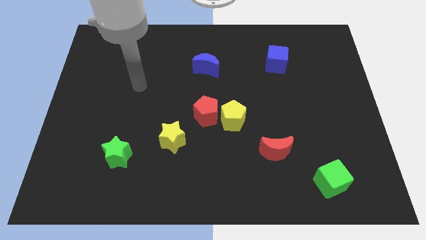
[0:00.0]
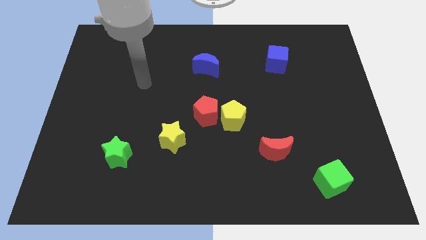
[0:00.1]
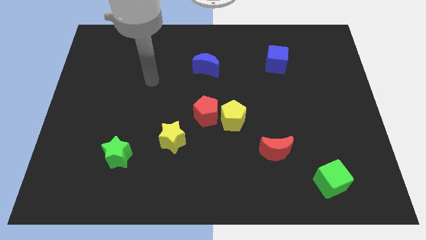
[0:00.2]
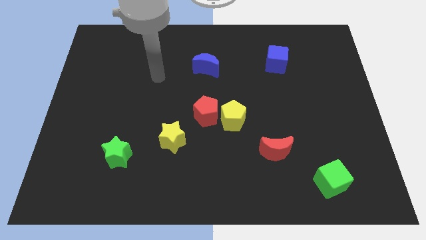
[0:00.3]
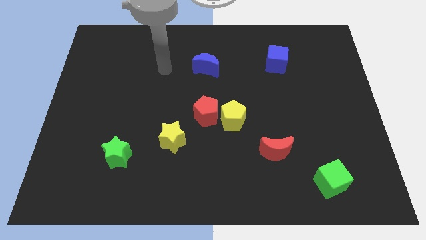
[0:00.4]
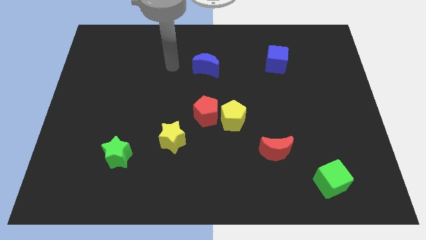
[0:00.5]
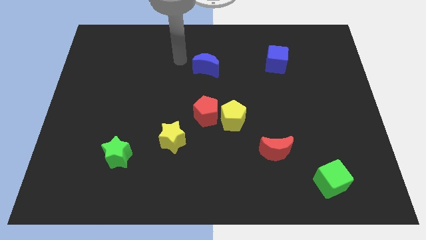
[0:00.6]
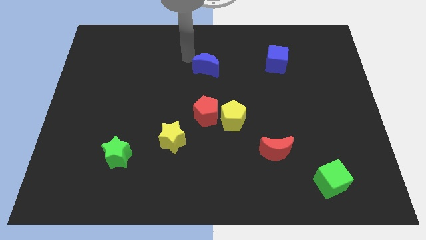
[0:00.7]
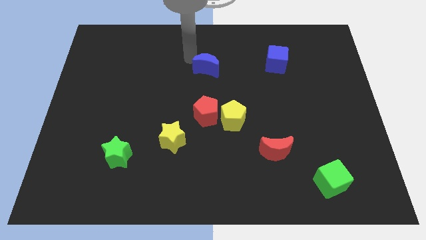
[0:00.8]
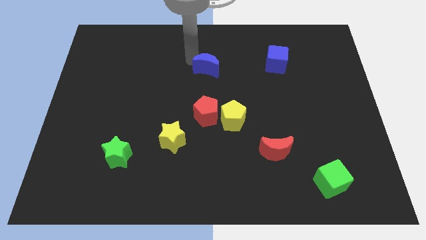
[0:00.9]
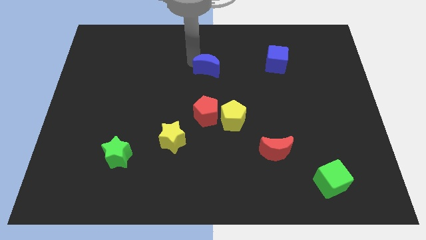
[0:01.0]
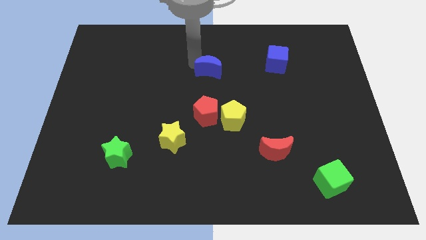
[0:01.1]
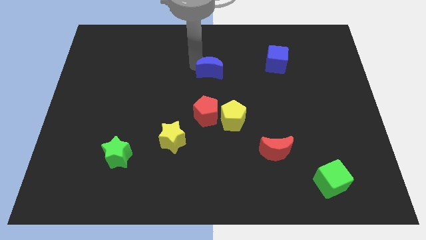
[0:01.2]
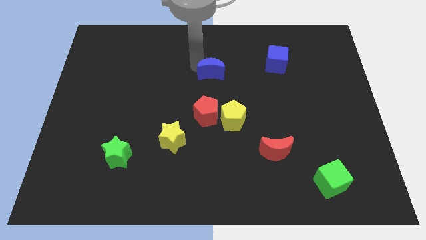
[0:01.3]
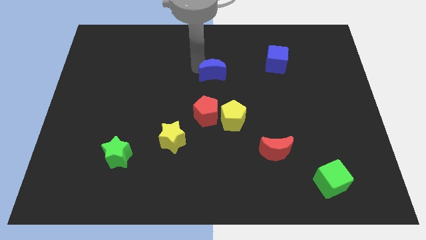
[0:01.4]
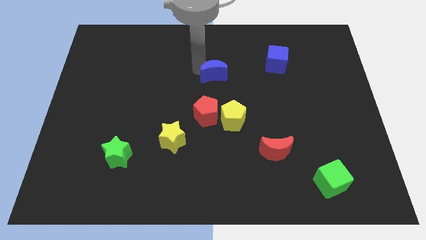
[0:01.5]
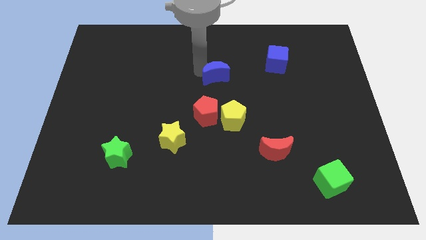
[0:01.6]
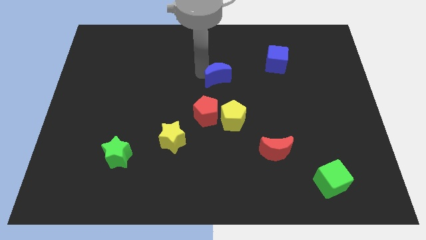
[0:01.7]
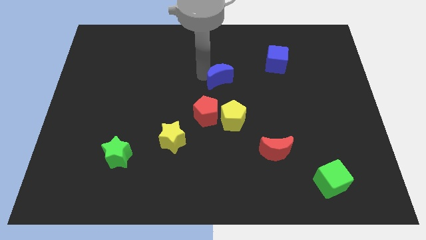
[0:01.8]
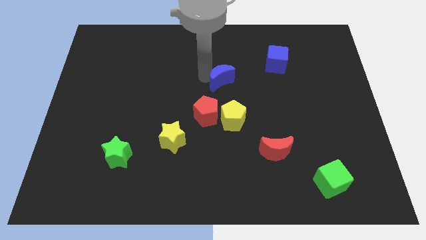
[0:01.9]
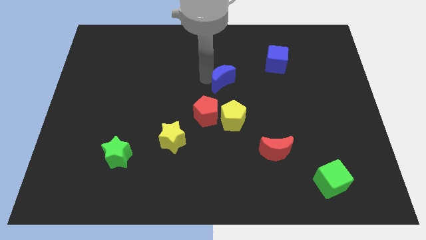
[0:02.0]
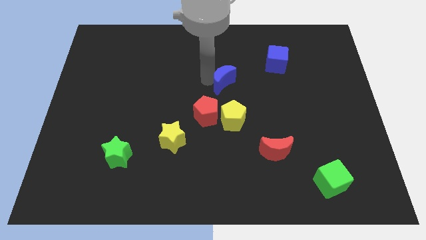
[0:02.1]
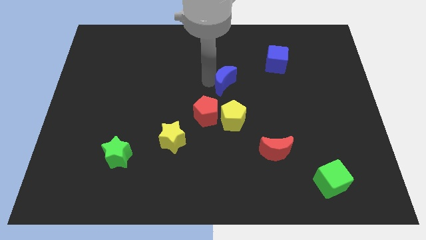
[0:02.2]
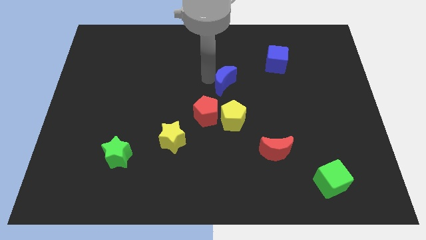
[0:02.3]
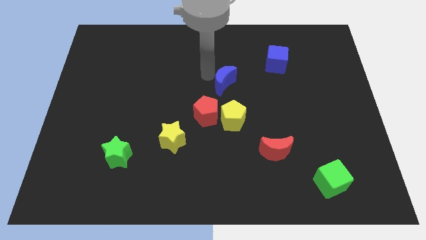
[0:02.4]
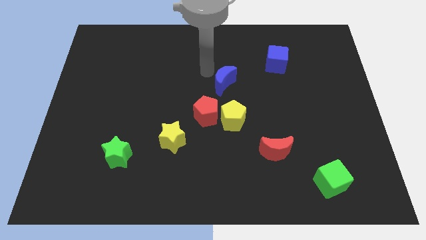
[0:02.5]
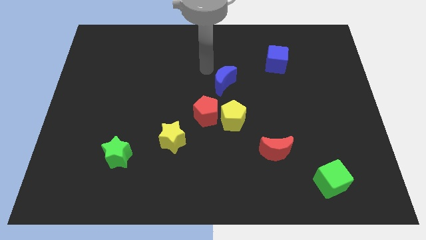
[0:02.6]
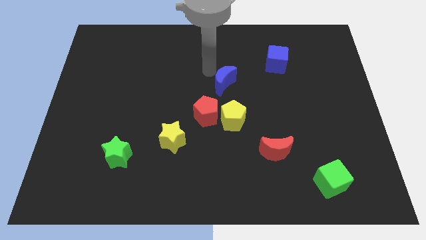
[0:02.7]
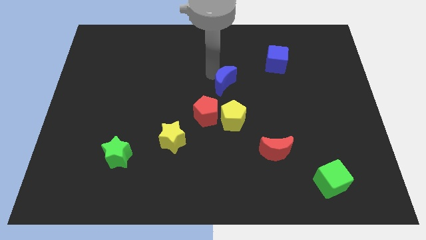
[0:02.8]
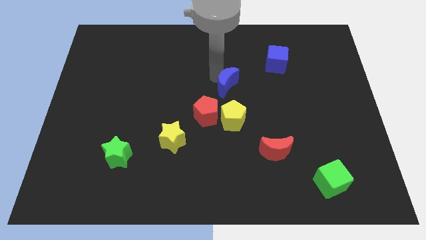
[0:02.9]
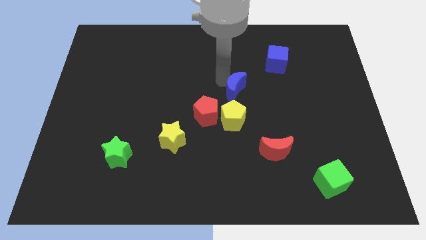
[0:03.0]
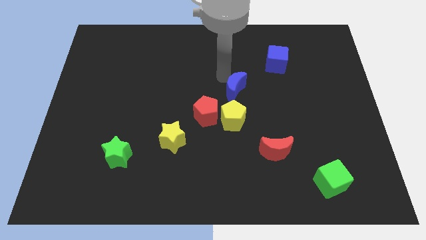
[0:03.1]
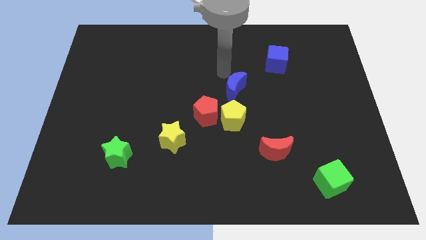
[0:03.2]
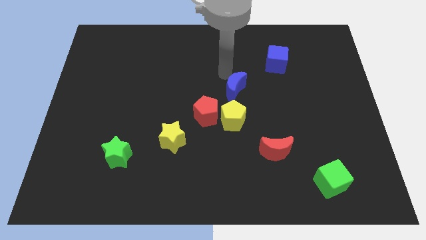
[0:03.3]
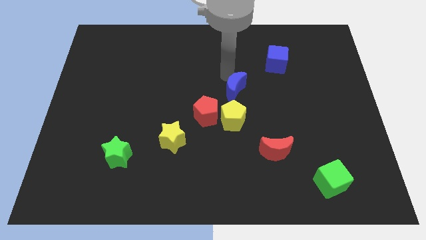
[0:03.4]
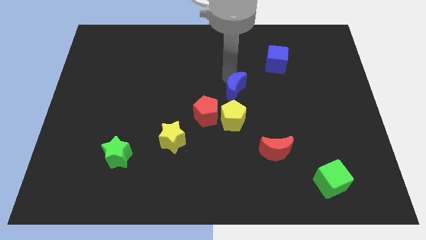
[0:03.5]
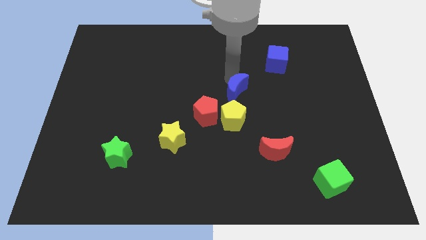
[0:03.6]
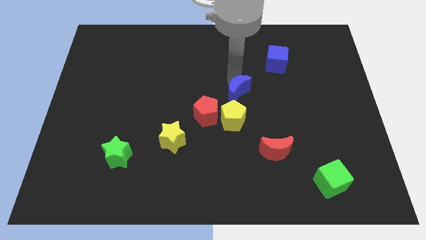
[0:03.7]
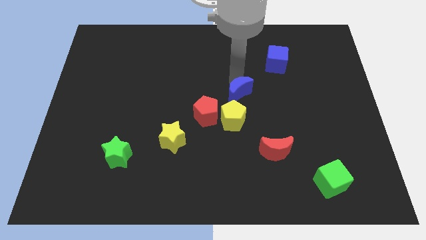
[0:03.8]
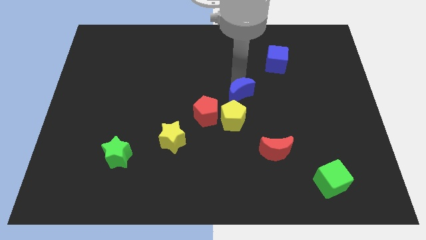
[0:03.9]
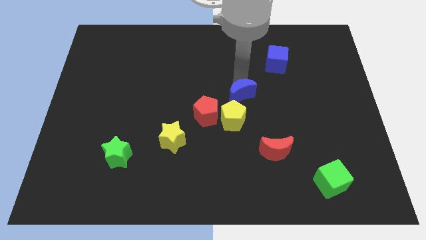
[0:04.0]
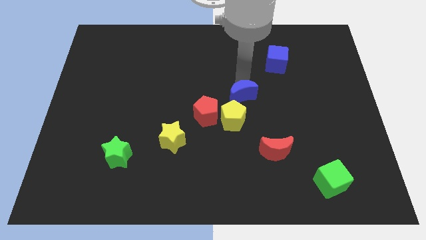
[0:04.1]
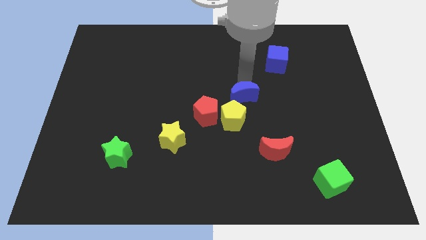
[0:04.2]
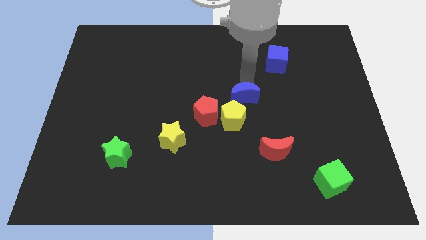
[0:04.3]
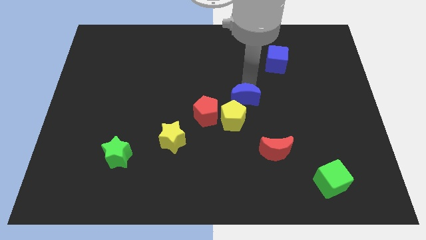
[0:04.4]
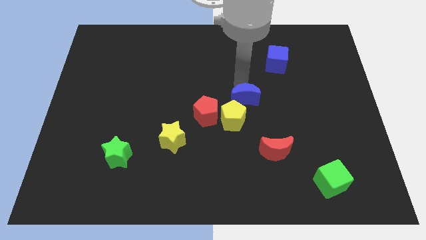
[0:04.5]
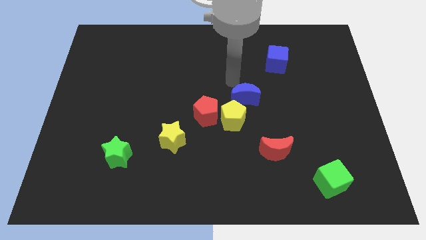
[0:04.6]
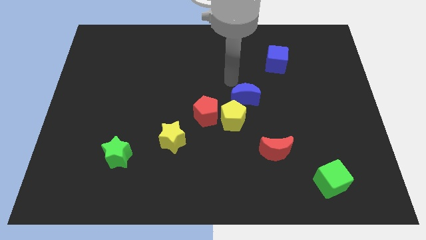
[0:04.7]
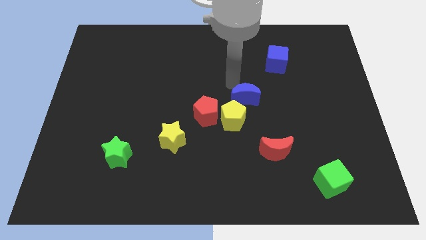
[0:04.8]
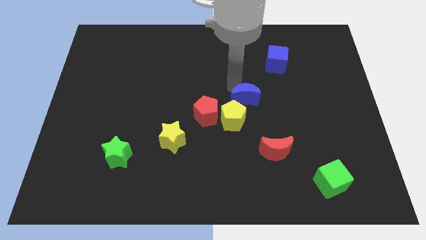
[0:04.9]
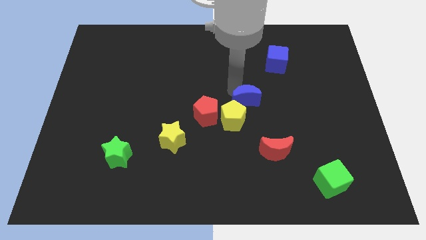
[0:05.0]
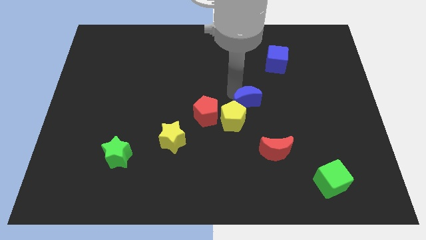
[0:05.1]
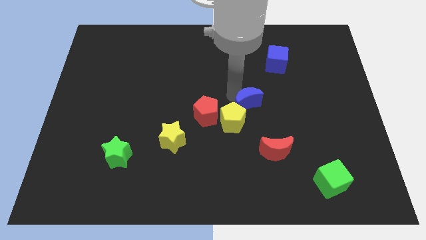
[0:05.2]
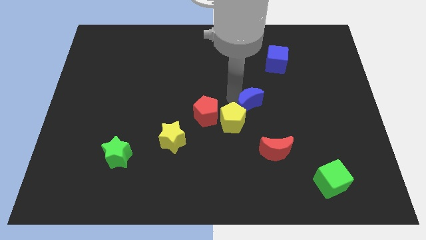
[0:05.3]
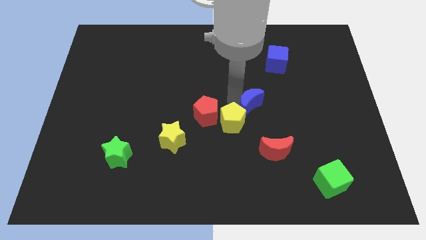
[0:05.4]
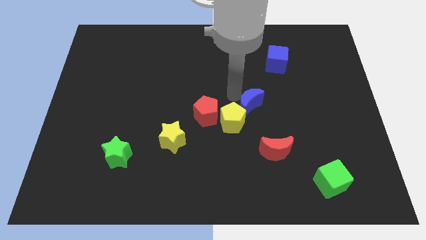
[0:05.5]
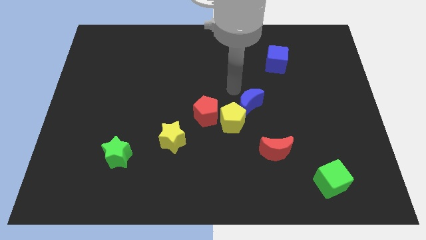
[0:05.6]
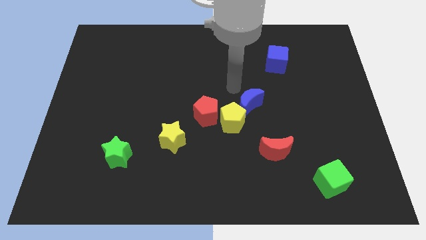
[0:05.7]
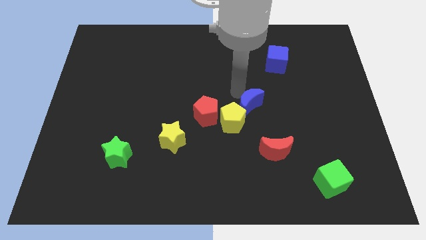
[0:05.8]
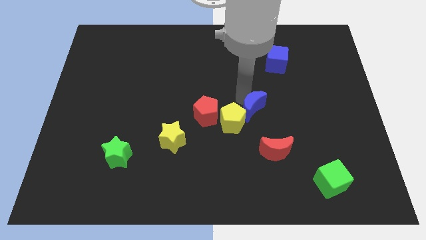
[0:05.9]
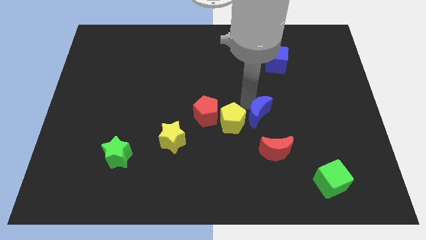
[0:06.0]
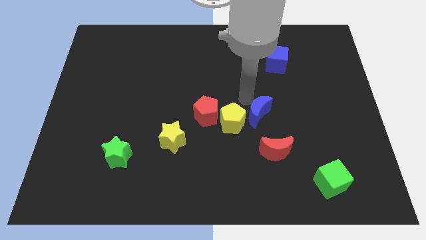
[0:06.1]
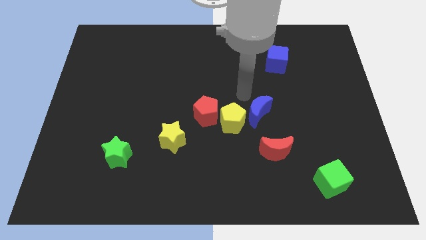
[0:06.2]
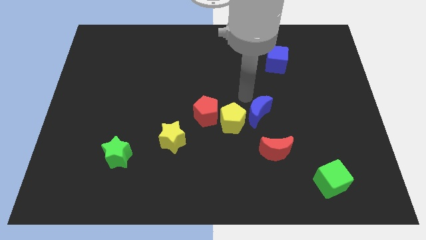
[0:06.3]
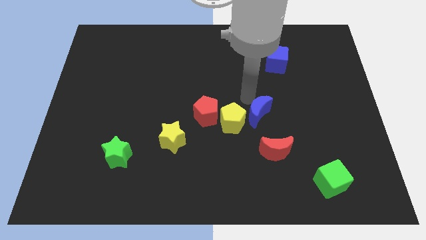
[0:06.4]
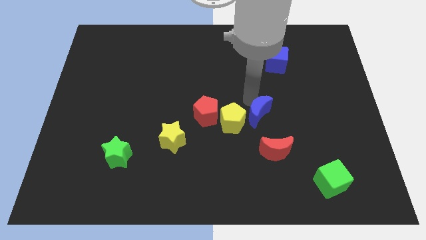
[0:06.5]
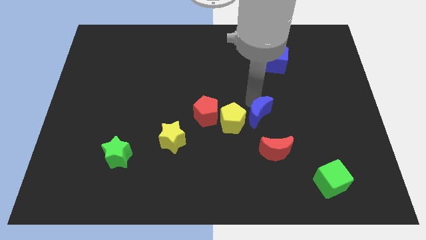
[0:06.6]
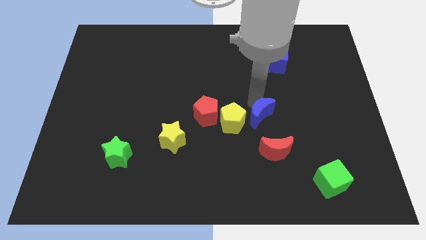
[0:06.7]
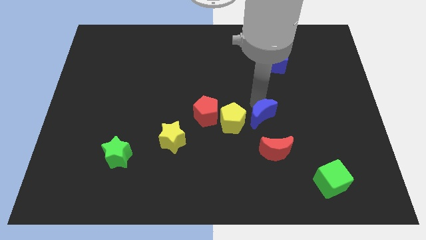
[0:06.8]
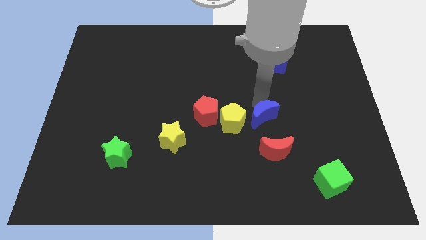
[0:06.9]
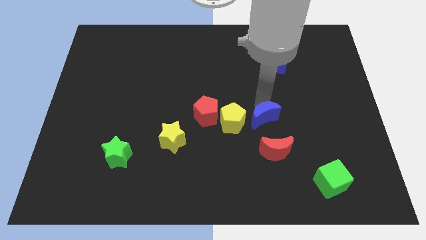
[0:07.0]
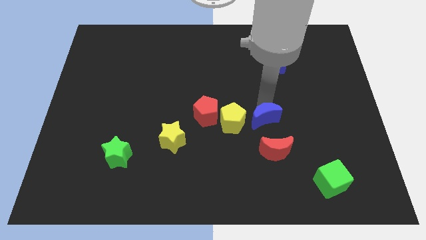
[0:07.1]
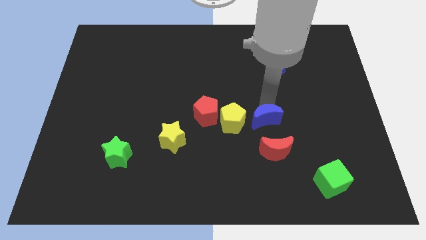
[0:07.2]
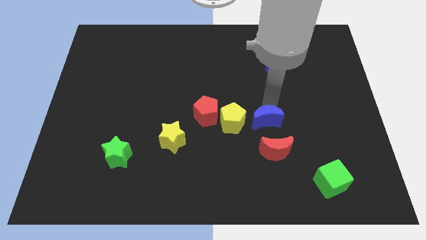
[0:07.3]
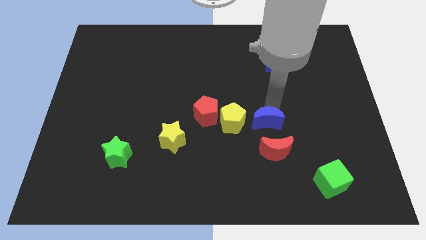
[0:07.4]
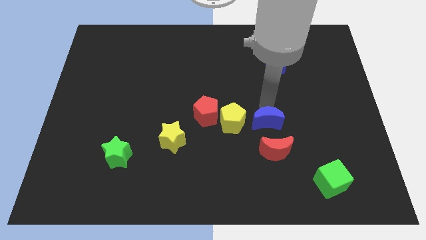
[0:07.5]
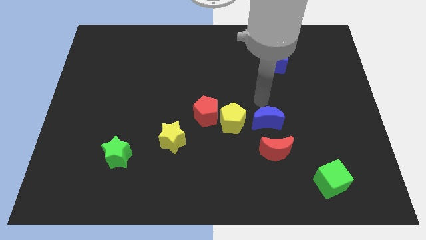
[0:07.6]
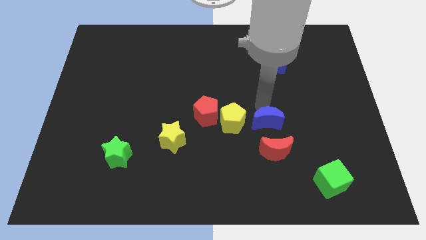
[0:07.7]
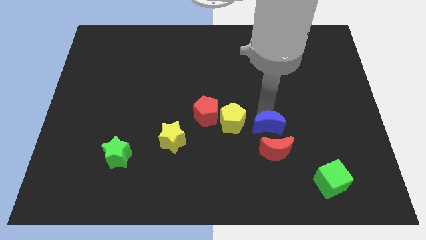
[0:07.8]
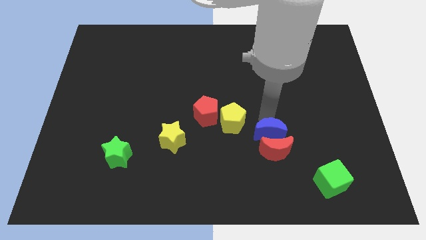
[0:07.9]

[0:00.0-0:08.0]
move the blue moon to the red moon
